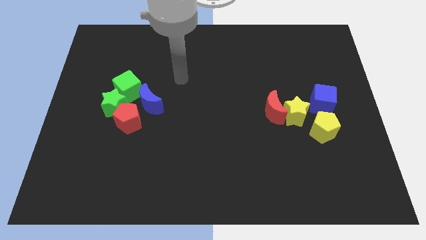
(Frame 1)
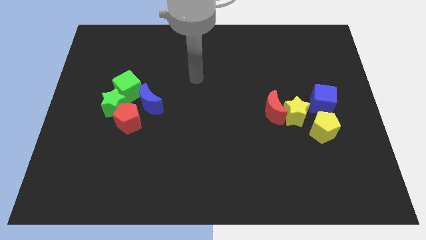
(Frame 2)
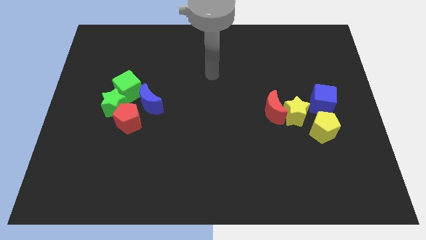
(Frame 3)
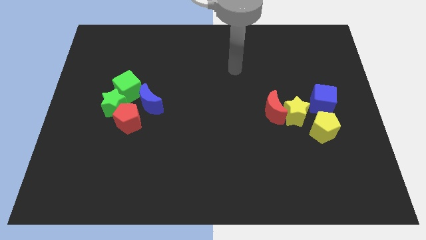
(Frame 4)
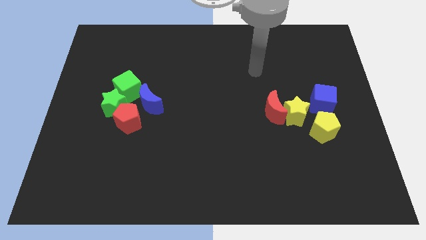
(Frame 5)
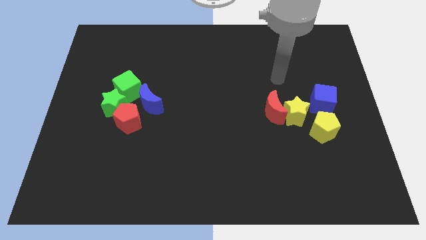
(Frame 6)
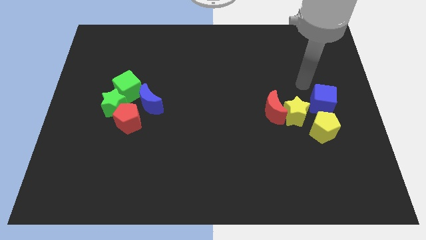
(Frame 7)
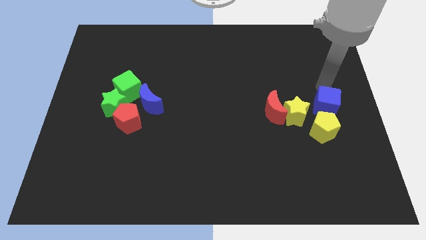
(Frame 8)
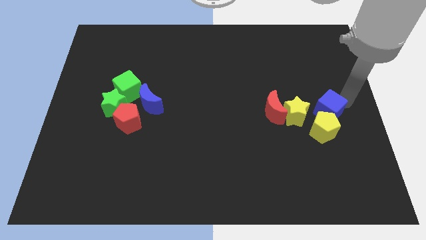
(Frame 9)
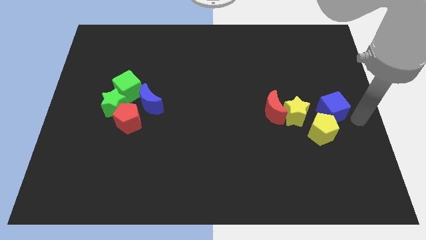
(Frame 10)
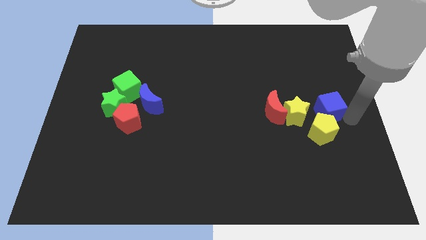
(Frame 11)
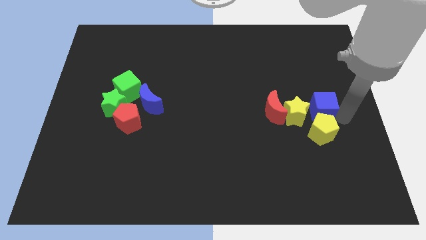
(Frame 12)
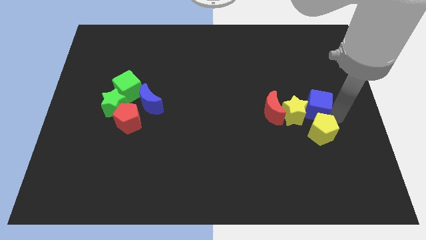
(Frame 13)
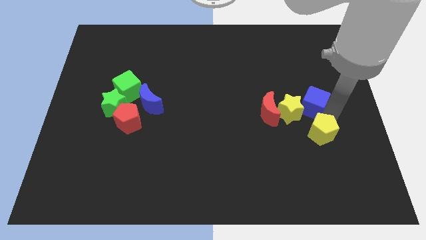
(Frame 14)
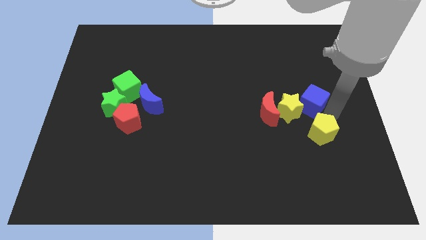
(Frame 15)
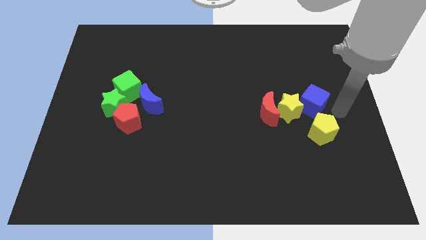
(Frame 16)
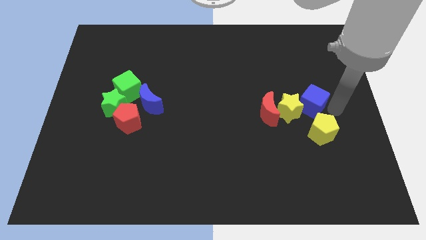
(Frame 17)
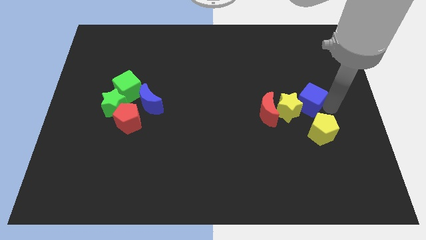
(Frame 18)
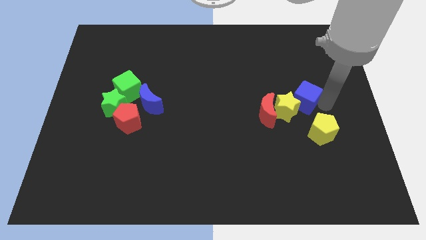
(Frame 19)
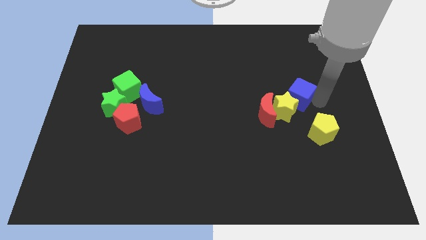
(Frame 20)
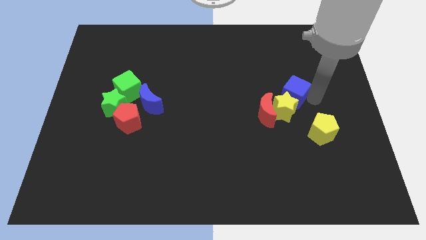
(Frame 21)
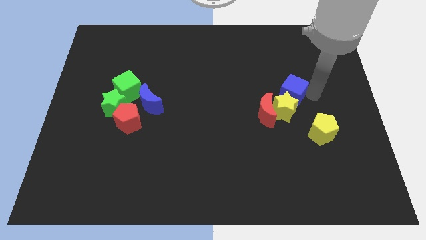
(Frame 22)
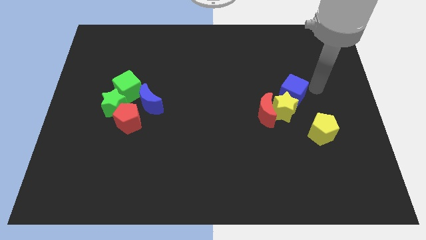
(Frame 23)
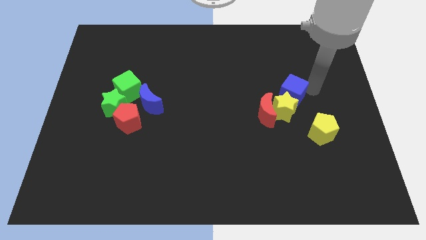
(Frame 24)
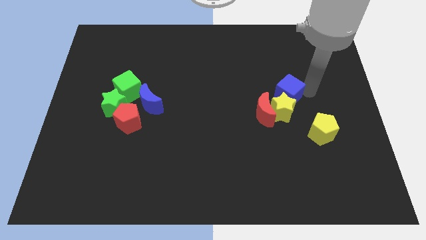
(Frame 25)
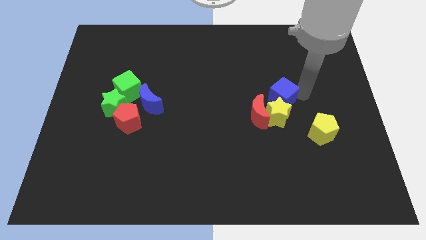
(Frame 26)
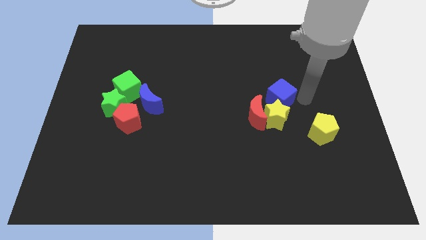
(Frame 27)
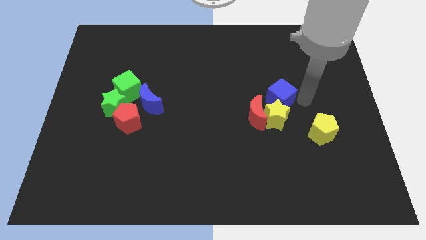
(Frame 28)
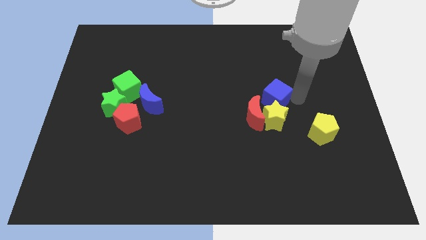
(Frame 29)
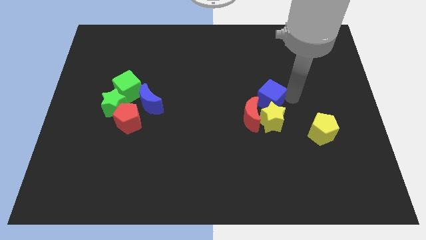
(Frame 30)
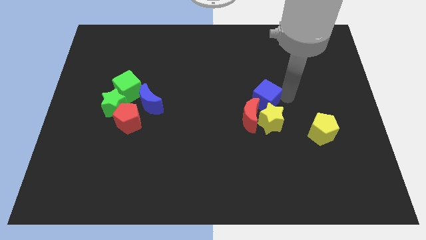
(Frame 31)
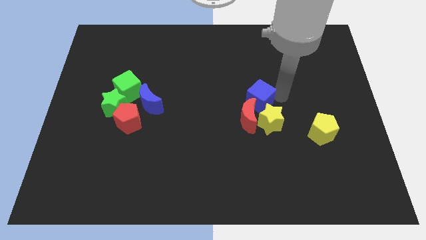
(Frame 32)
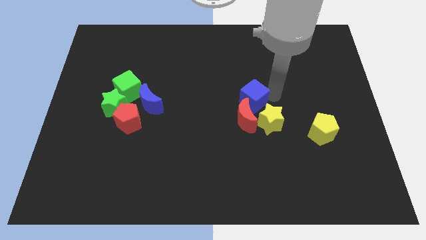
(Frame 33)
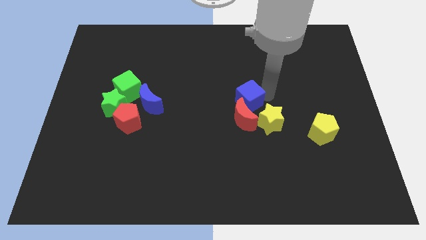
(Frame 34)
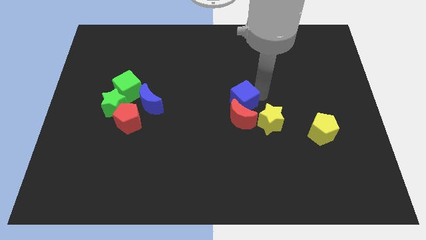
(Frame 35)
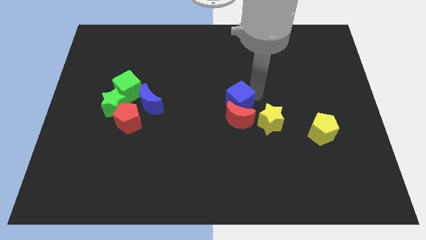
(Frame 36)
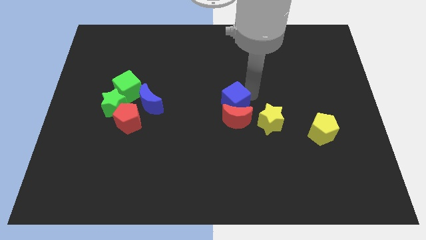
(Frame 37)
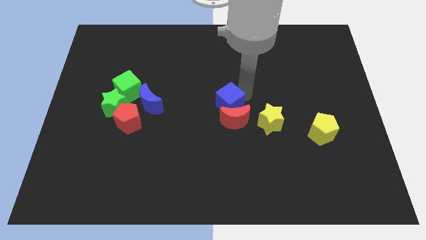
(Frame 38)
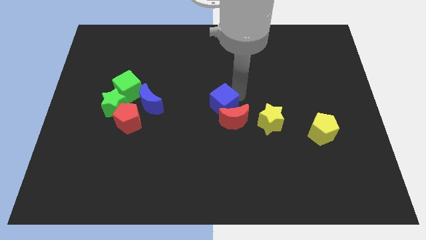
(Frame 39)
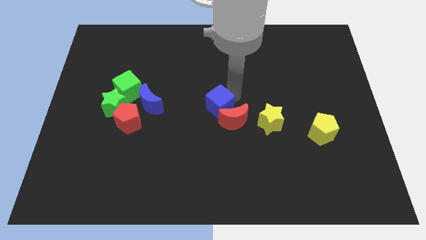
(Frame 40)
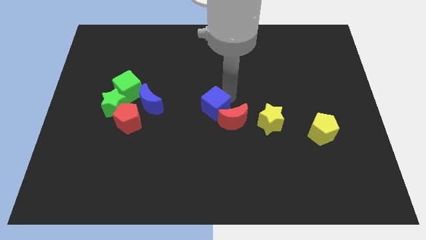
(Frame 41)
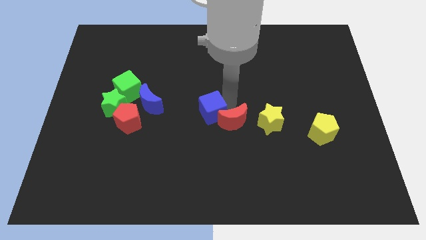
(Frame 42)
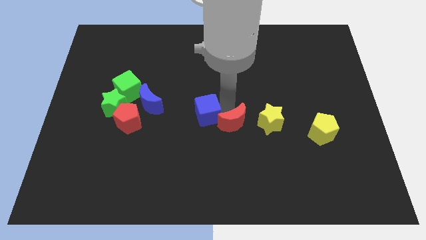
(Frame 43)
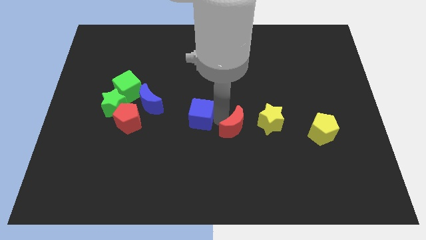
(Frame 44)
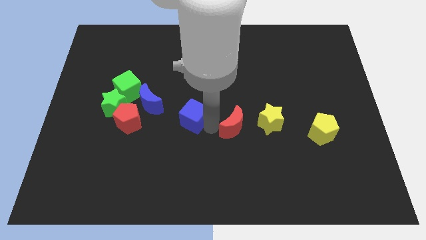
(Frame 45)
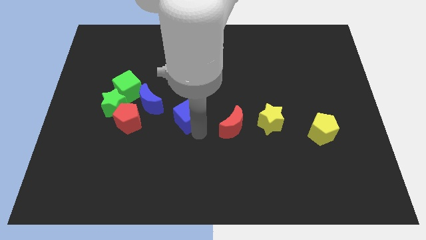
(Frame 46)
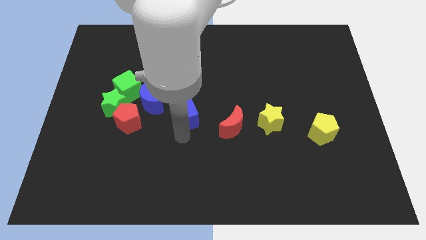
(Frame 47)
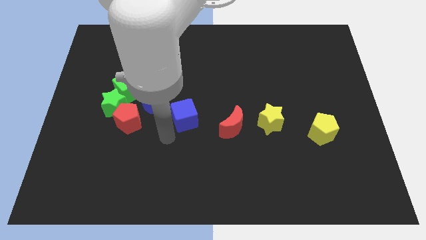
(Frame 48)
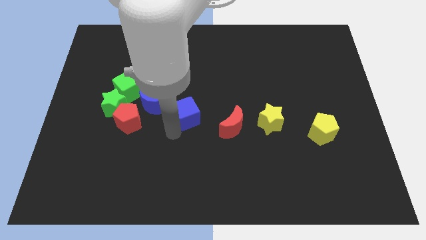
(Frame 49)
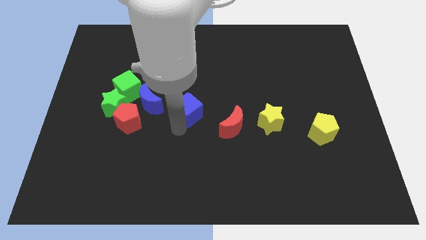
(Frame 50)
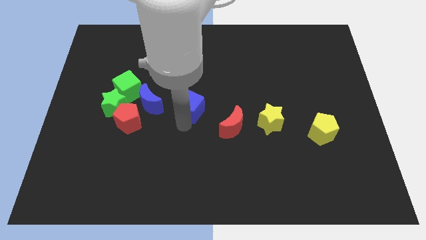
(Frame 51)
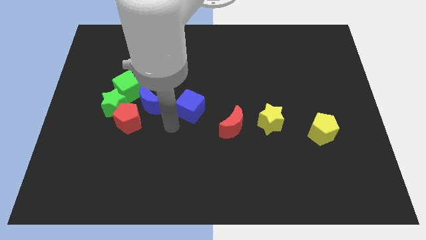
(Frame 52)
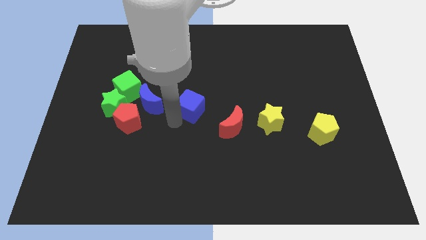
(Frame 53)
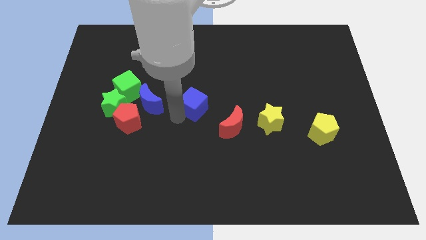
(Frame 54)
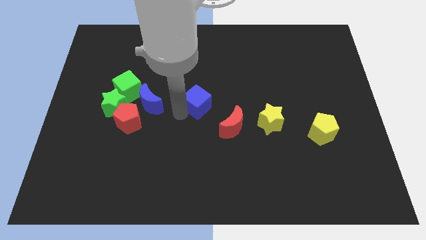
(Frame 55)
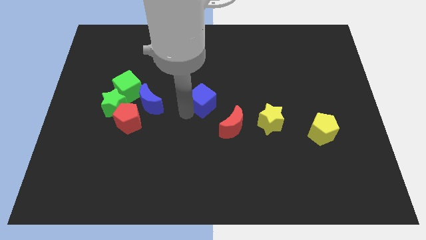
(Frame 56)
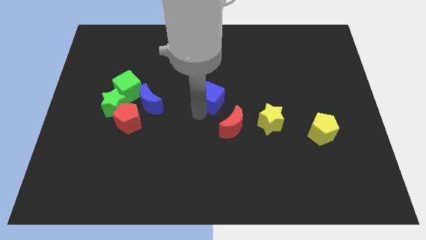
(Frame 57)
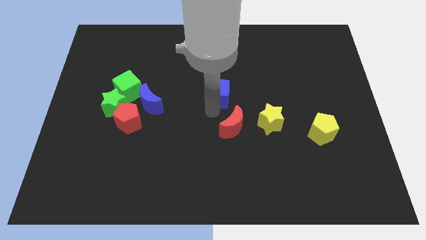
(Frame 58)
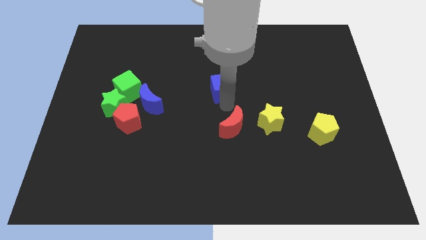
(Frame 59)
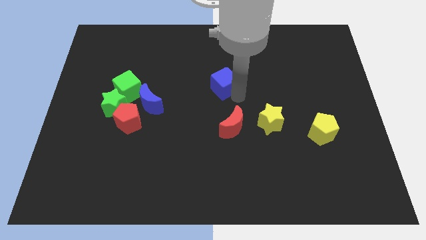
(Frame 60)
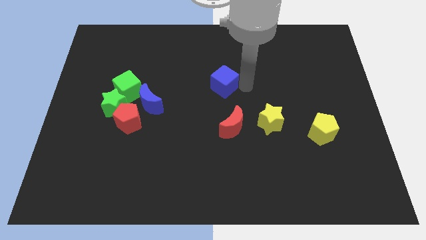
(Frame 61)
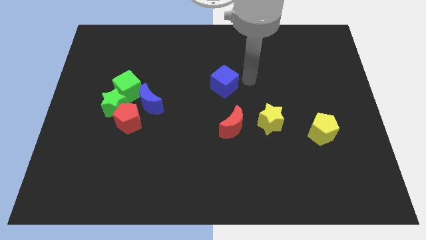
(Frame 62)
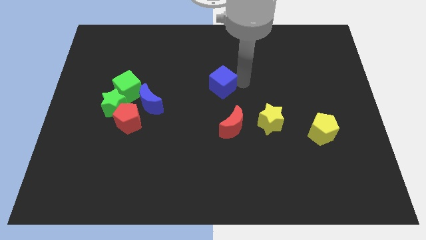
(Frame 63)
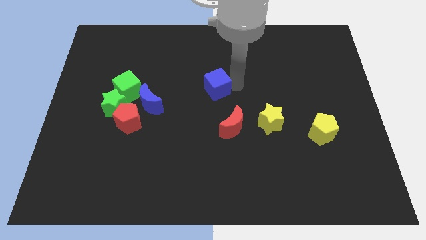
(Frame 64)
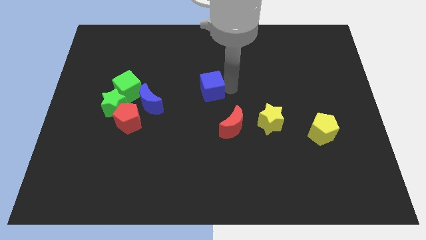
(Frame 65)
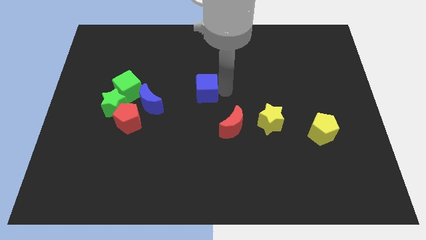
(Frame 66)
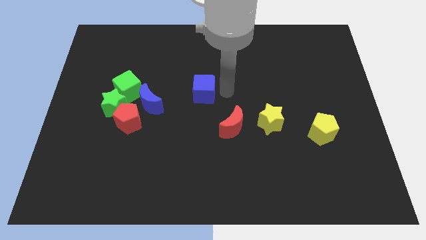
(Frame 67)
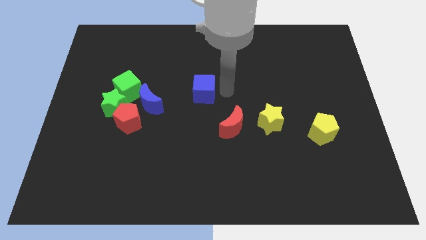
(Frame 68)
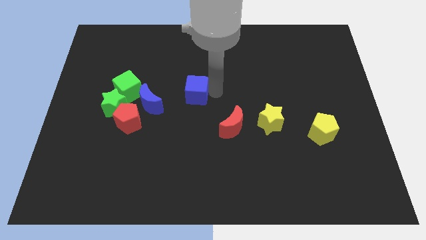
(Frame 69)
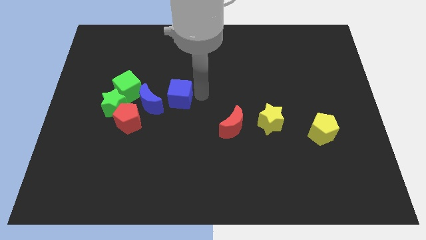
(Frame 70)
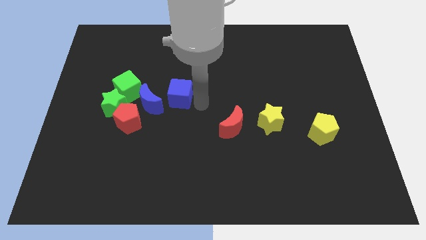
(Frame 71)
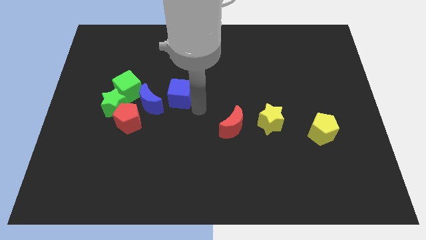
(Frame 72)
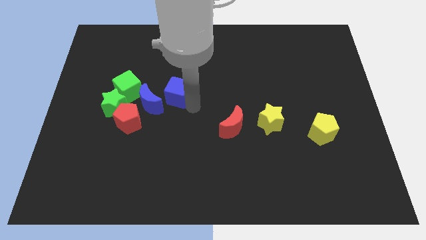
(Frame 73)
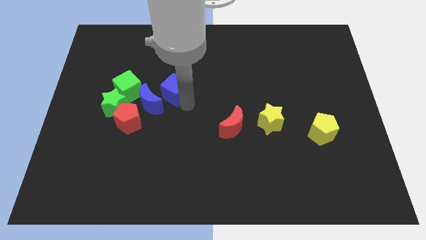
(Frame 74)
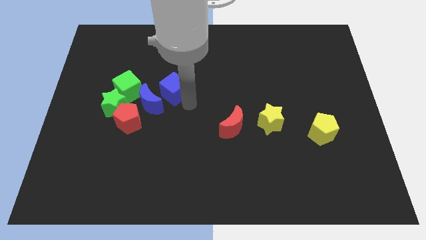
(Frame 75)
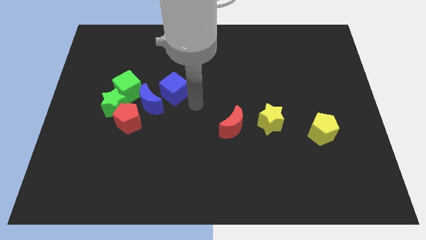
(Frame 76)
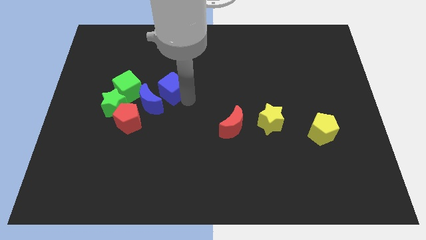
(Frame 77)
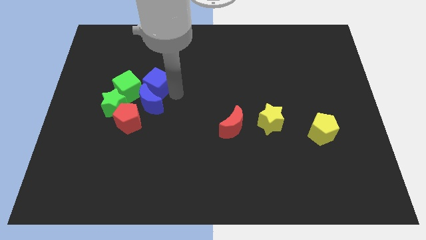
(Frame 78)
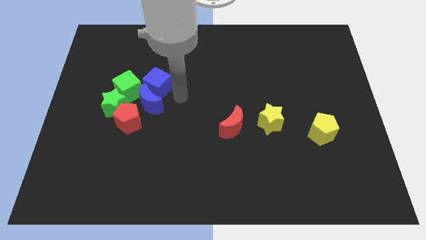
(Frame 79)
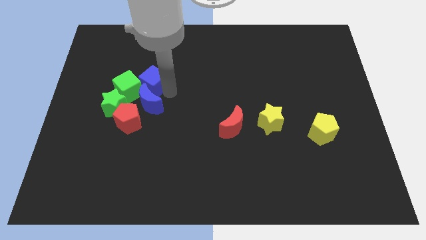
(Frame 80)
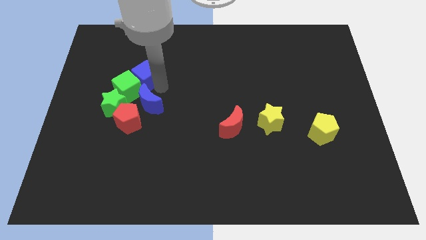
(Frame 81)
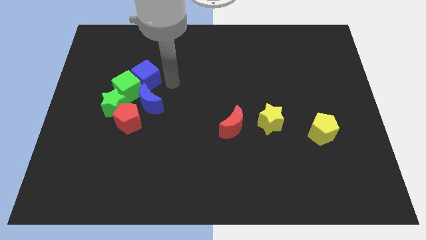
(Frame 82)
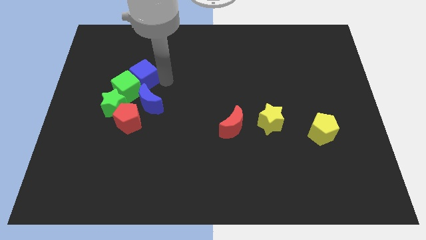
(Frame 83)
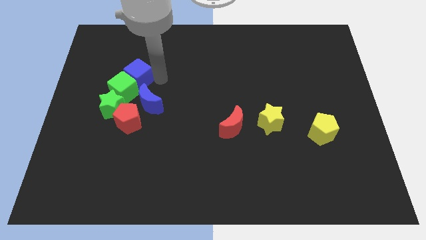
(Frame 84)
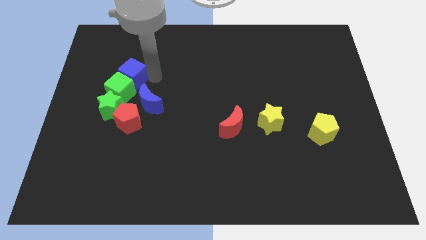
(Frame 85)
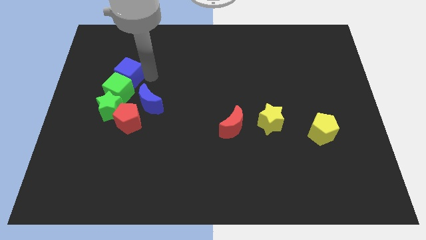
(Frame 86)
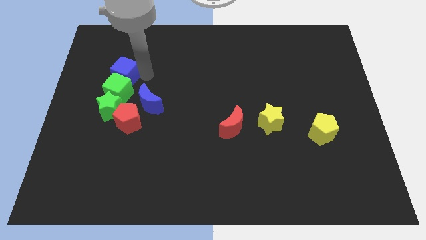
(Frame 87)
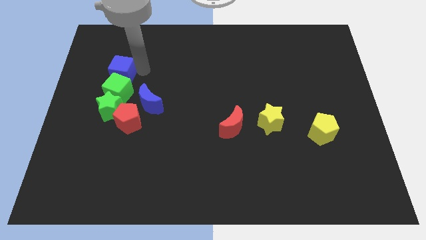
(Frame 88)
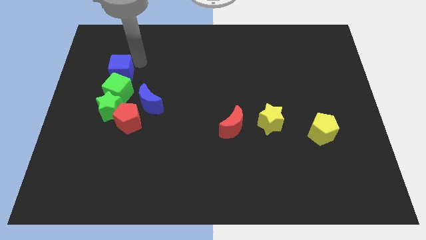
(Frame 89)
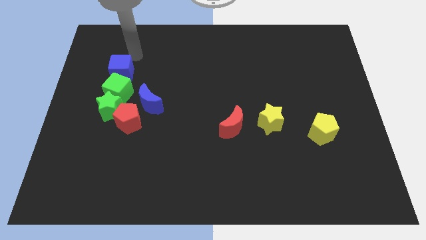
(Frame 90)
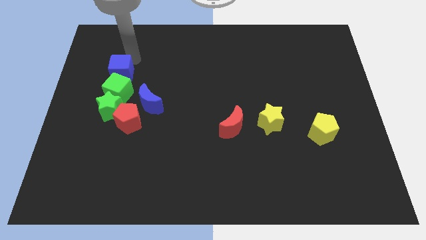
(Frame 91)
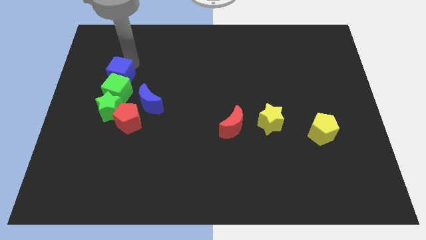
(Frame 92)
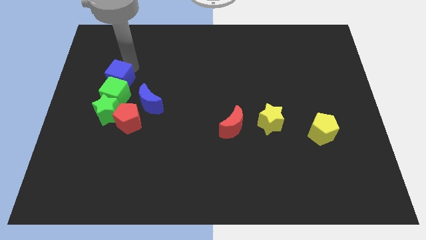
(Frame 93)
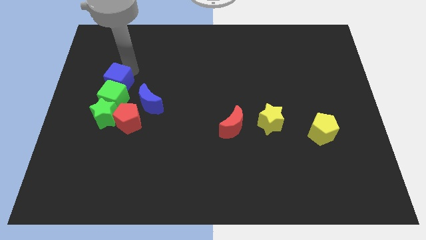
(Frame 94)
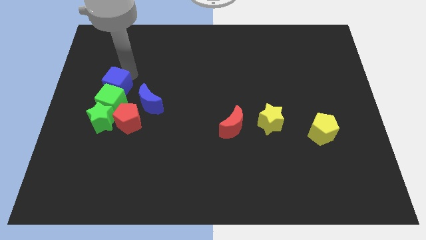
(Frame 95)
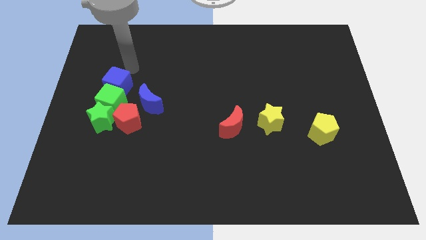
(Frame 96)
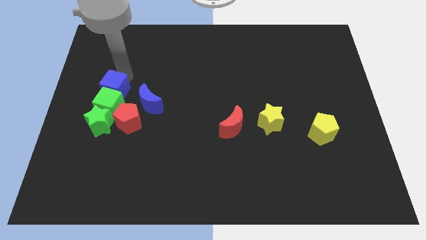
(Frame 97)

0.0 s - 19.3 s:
put the blue cube left of the blue moon
